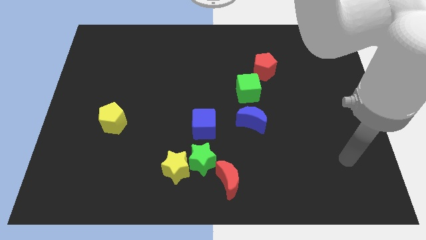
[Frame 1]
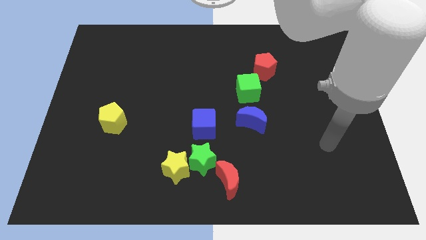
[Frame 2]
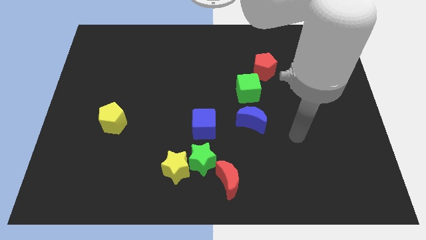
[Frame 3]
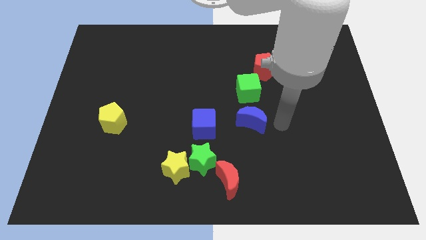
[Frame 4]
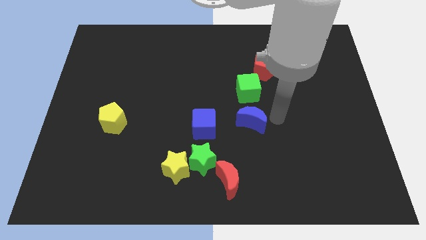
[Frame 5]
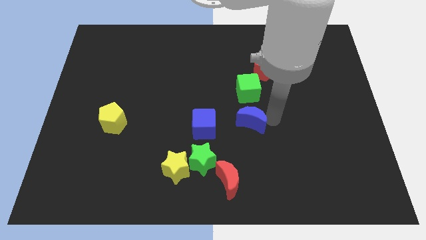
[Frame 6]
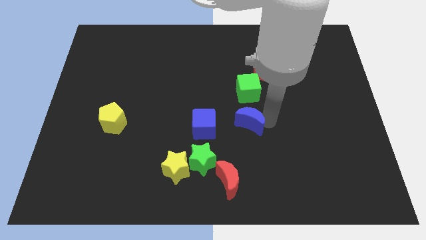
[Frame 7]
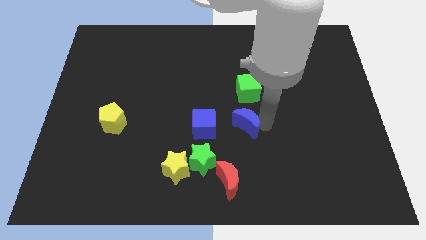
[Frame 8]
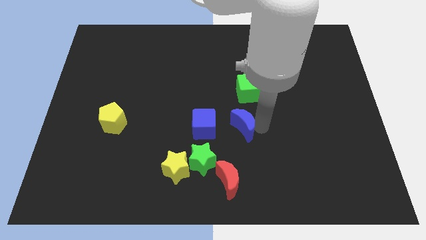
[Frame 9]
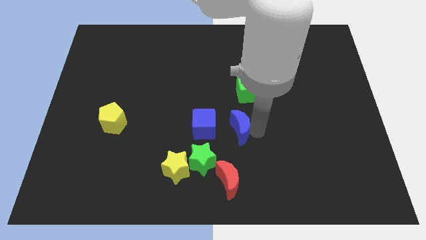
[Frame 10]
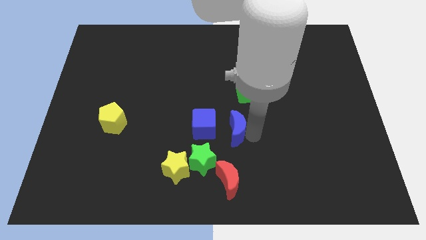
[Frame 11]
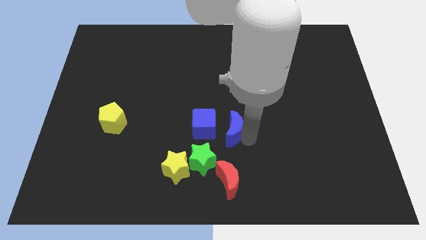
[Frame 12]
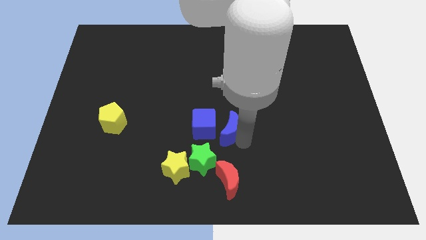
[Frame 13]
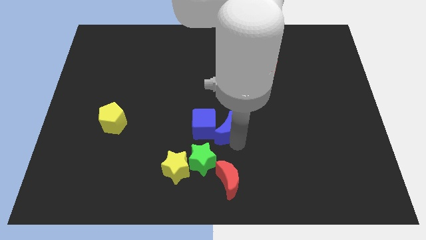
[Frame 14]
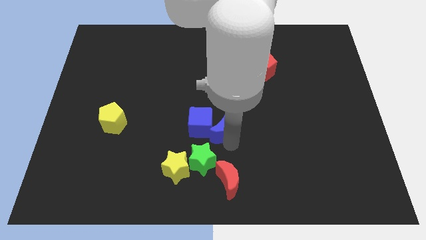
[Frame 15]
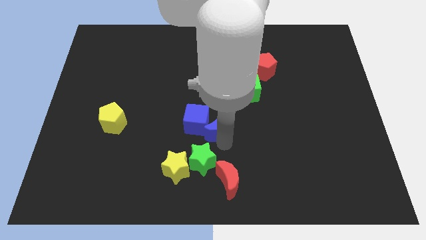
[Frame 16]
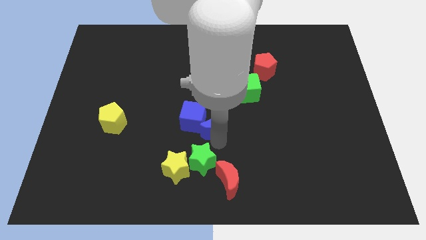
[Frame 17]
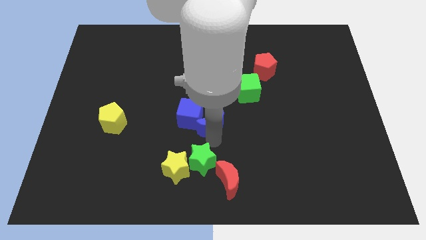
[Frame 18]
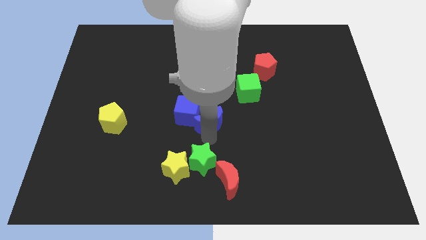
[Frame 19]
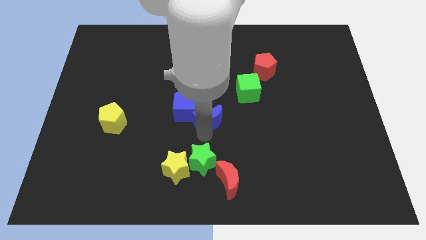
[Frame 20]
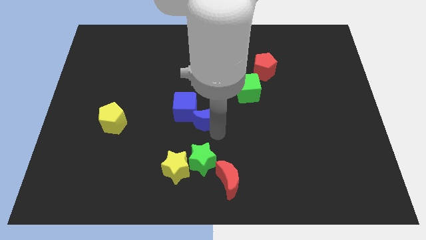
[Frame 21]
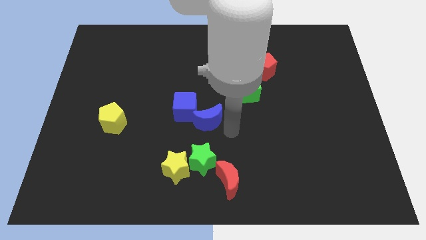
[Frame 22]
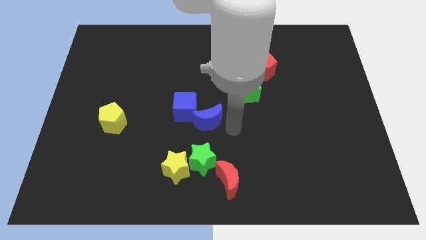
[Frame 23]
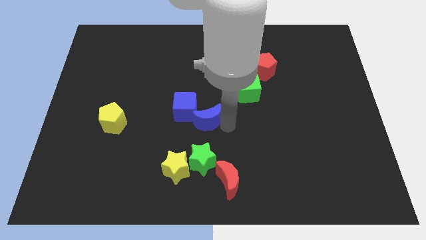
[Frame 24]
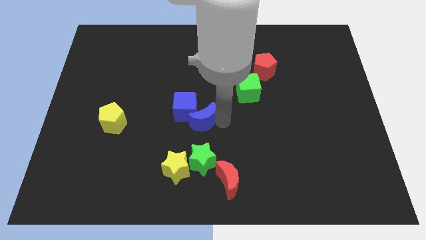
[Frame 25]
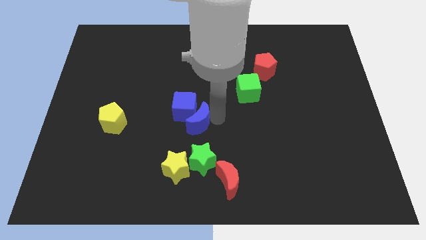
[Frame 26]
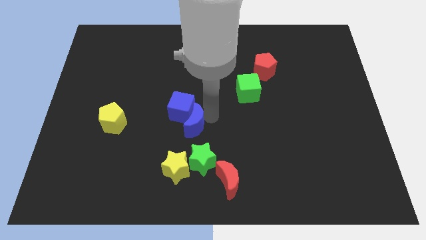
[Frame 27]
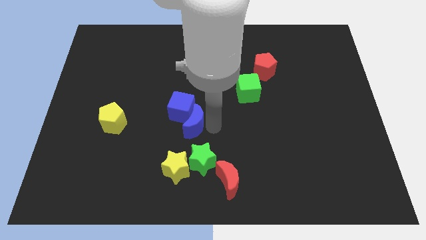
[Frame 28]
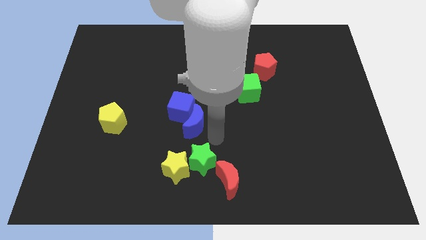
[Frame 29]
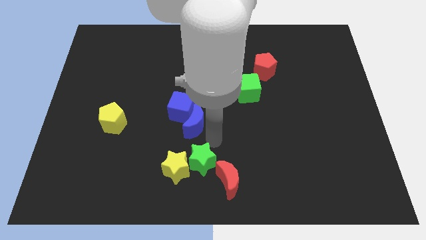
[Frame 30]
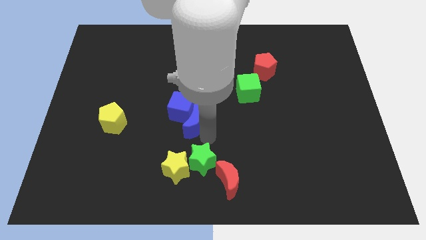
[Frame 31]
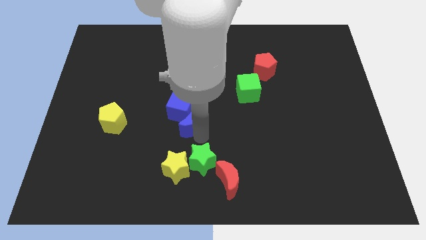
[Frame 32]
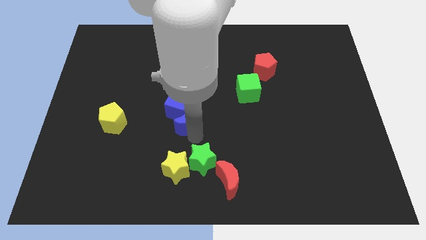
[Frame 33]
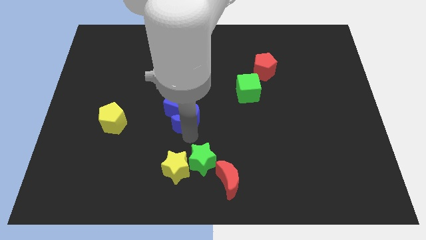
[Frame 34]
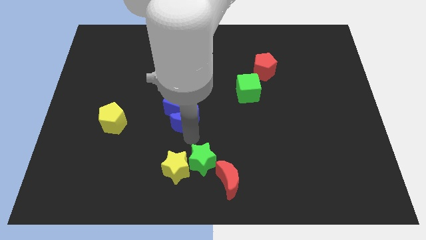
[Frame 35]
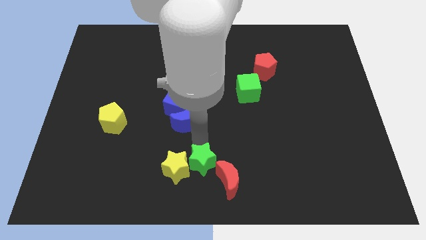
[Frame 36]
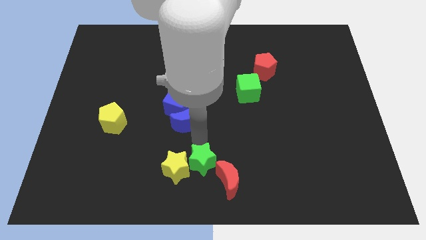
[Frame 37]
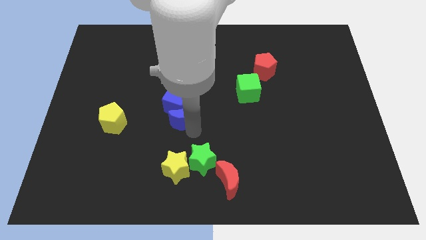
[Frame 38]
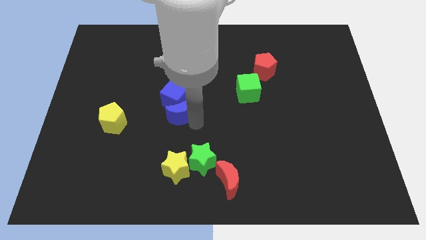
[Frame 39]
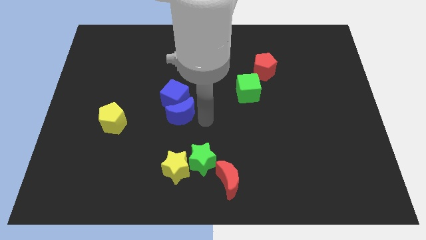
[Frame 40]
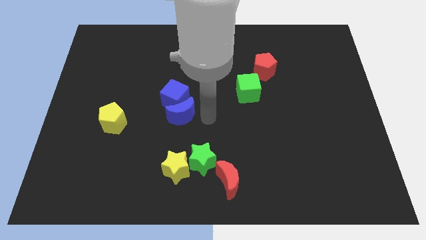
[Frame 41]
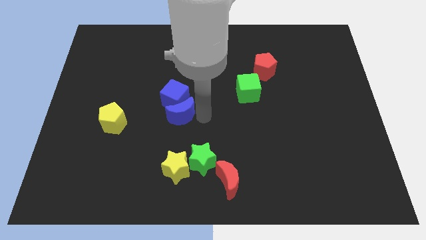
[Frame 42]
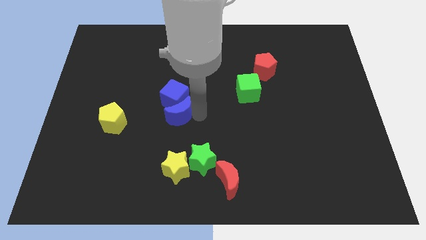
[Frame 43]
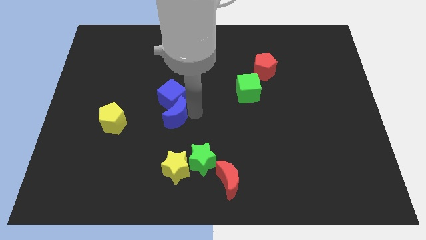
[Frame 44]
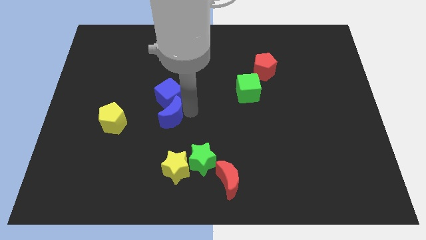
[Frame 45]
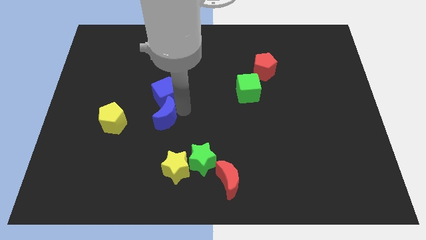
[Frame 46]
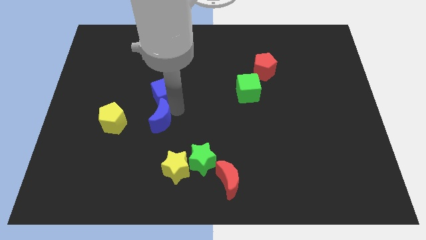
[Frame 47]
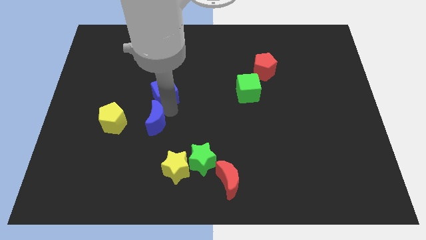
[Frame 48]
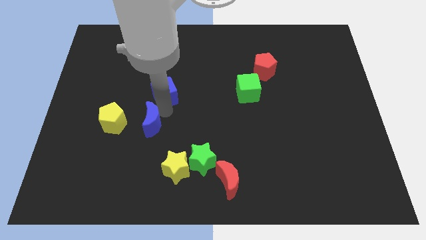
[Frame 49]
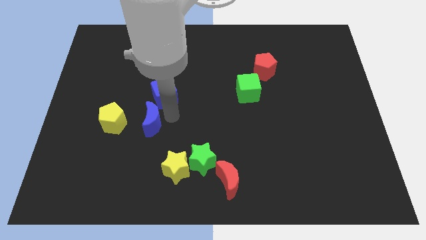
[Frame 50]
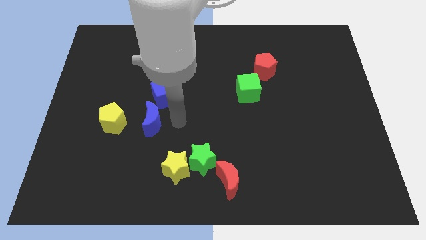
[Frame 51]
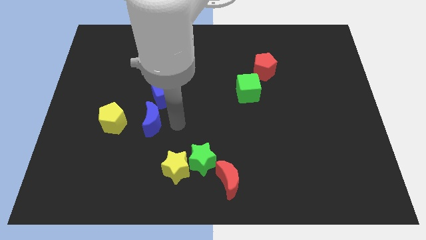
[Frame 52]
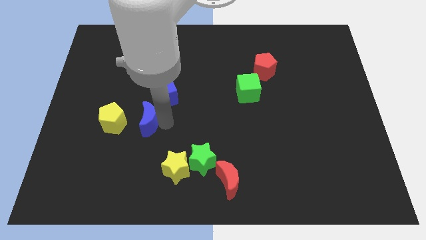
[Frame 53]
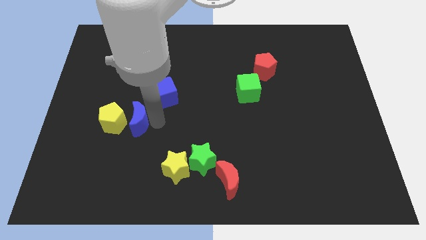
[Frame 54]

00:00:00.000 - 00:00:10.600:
slide the blue moon close to the yellow pentagon

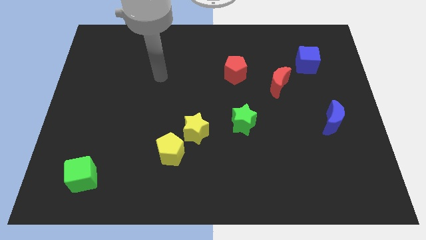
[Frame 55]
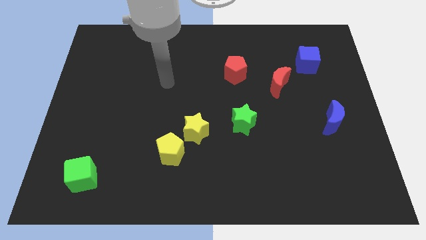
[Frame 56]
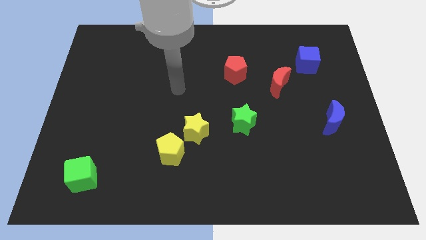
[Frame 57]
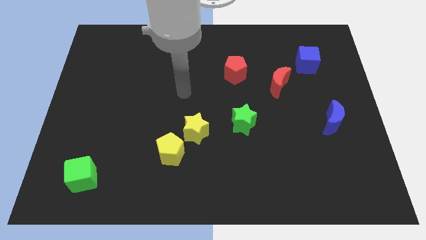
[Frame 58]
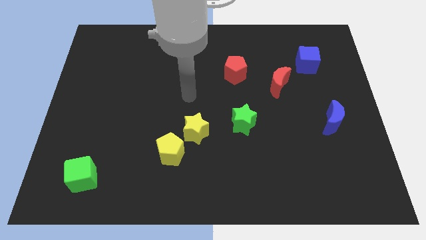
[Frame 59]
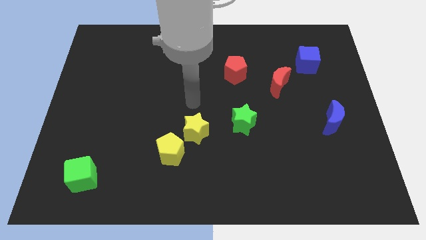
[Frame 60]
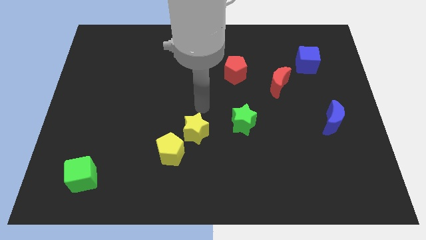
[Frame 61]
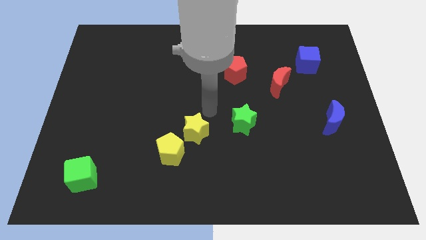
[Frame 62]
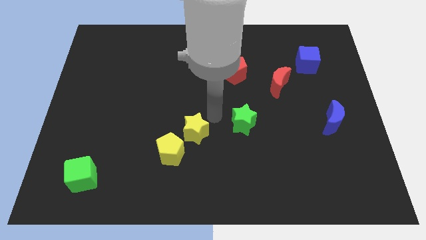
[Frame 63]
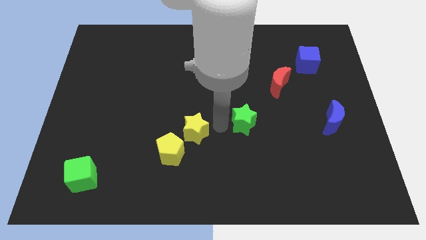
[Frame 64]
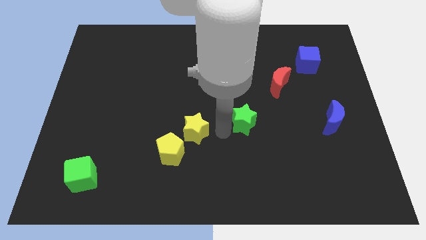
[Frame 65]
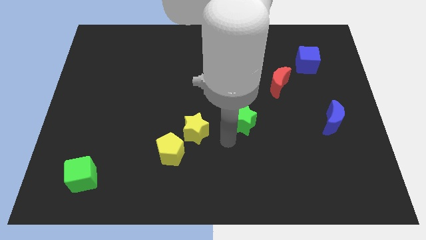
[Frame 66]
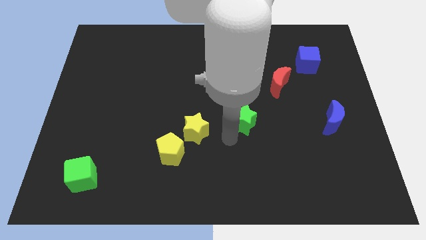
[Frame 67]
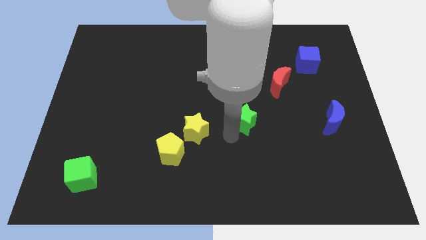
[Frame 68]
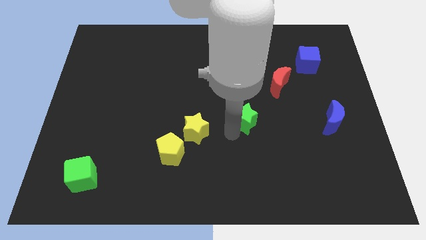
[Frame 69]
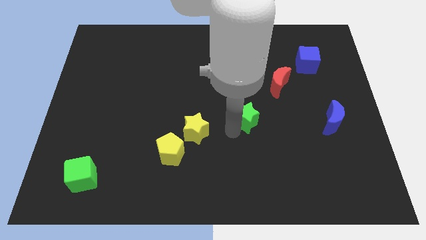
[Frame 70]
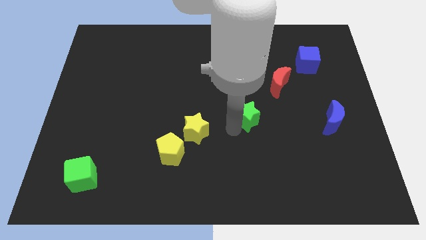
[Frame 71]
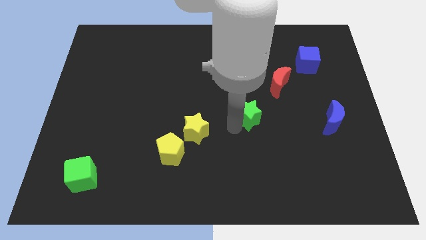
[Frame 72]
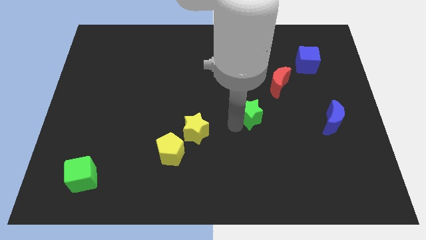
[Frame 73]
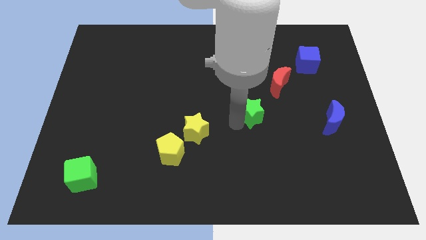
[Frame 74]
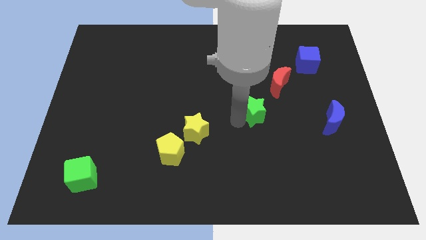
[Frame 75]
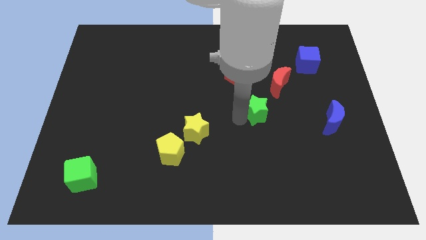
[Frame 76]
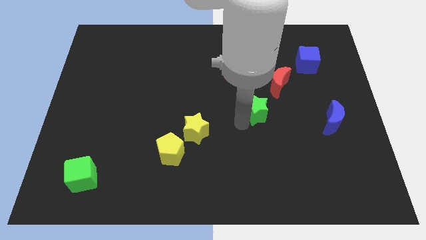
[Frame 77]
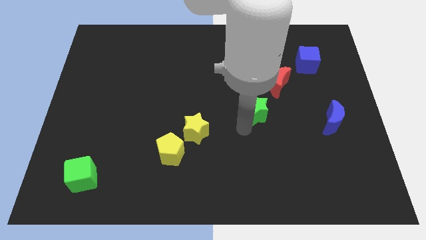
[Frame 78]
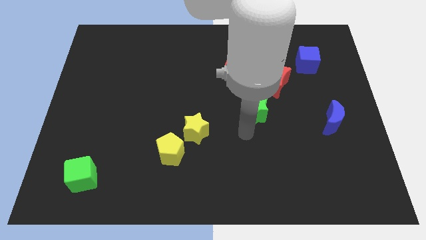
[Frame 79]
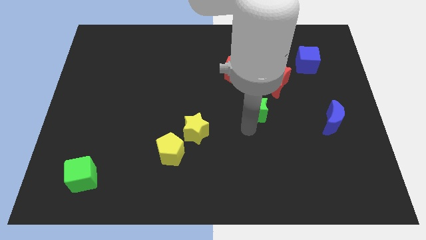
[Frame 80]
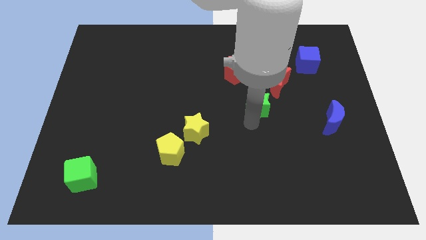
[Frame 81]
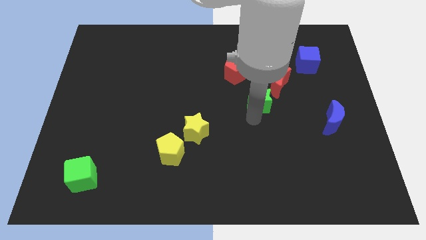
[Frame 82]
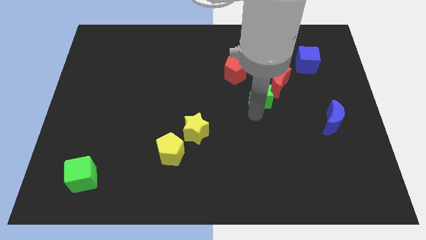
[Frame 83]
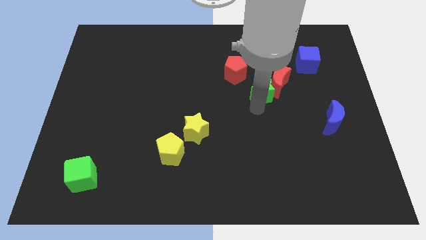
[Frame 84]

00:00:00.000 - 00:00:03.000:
slide the green star to the red moon
